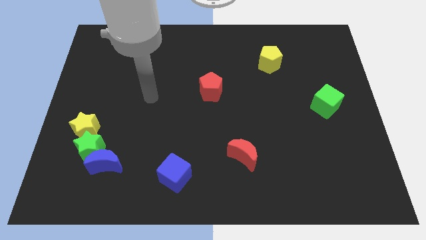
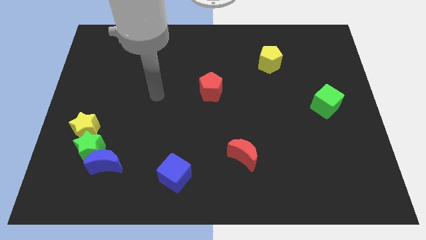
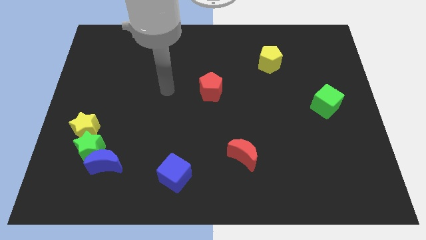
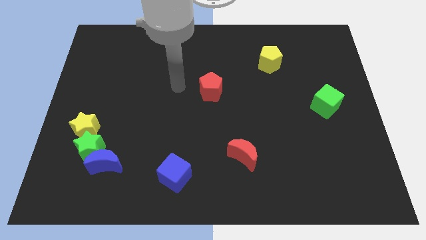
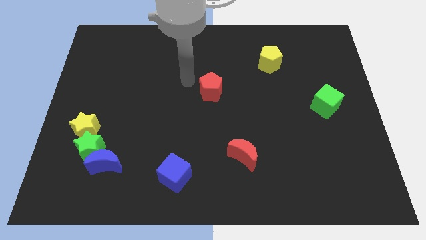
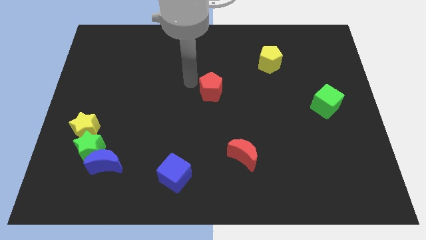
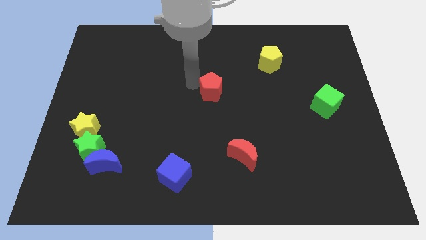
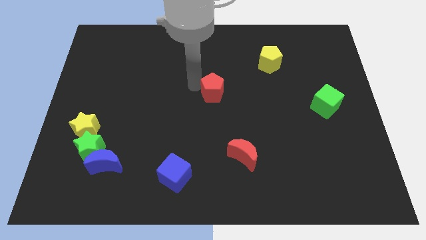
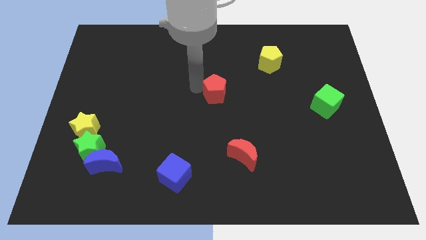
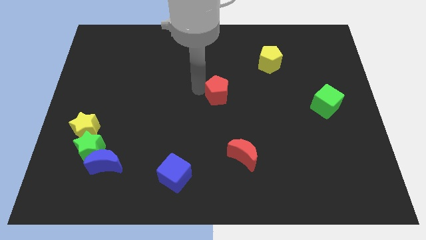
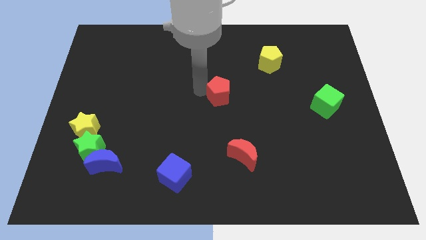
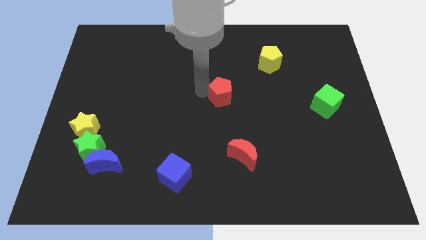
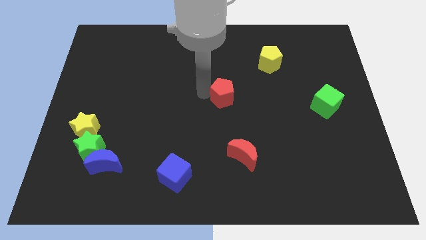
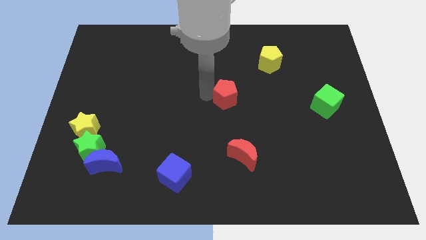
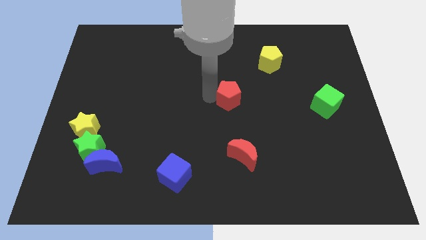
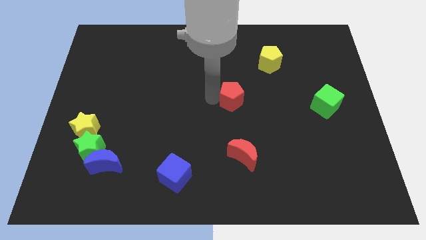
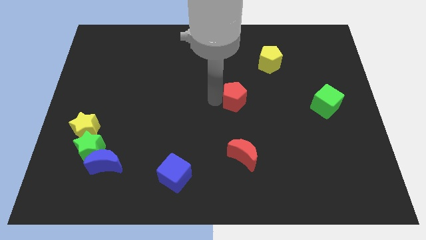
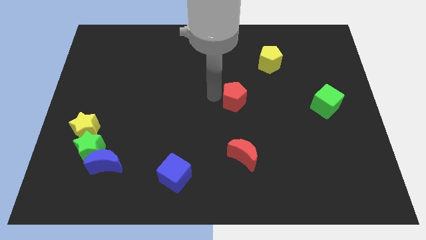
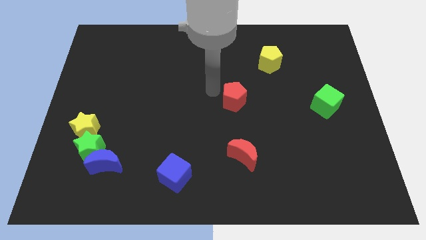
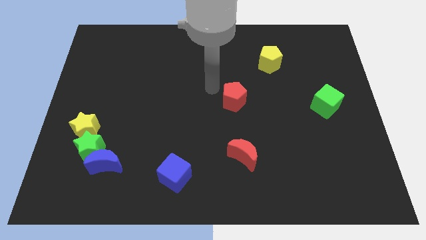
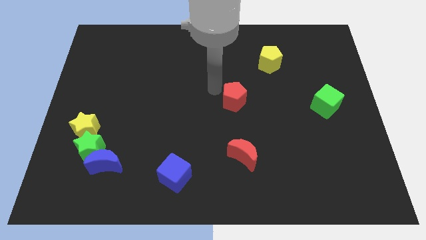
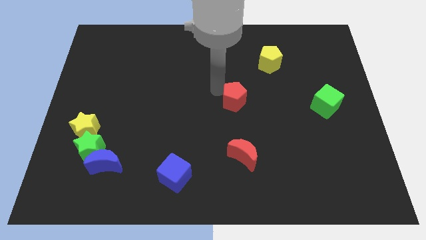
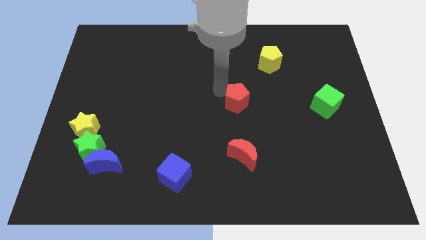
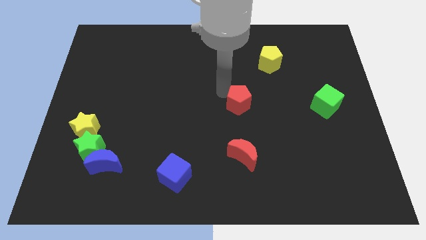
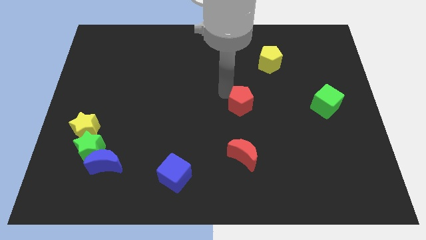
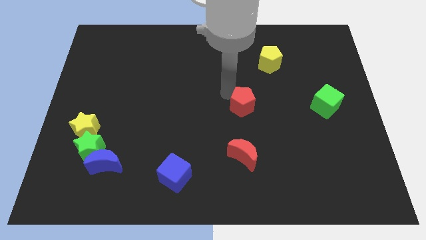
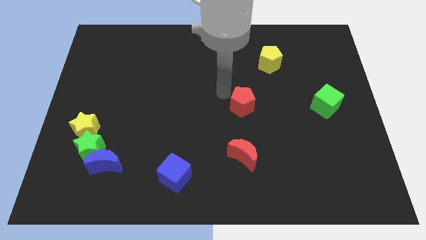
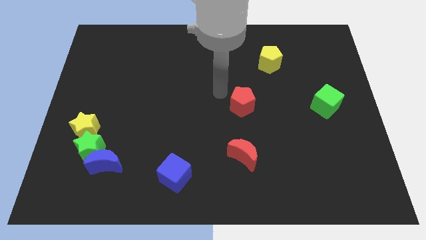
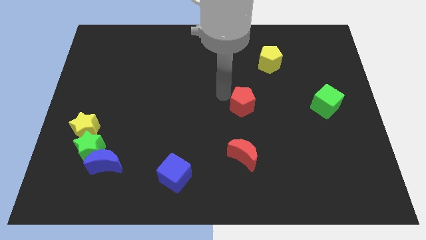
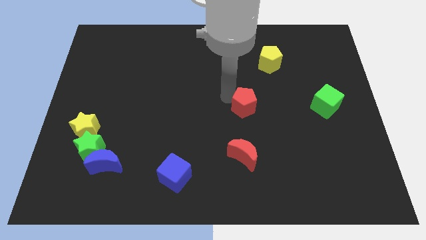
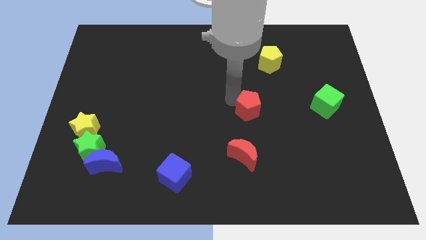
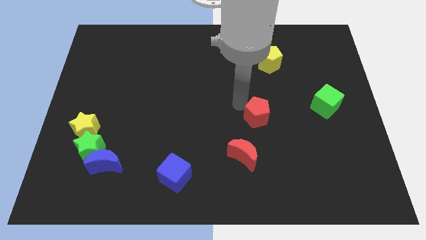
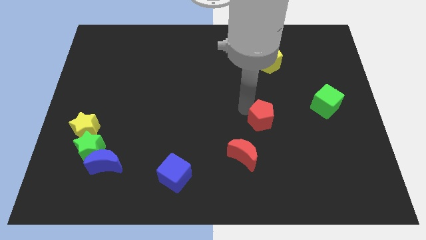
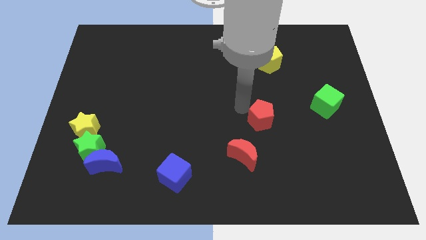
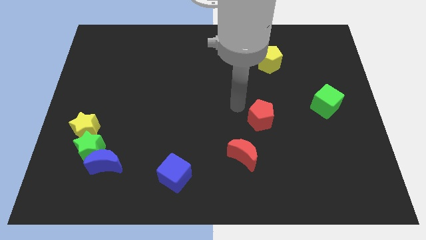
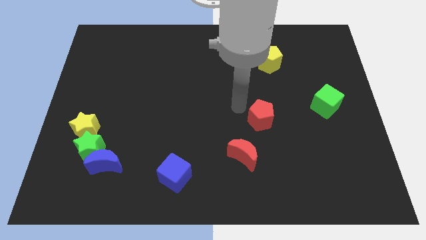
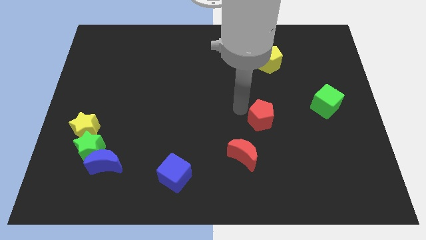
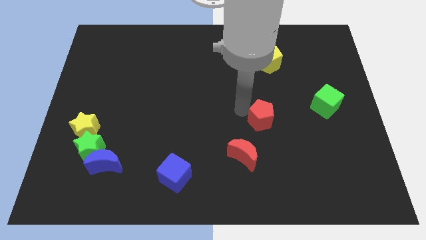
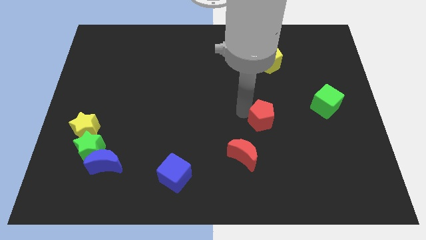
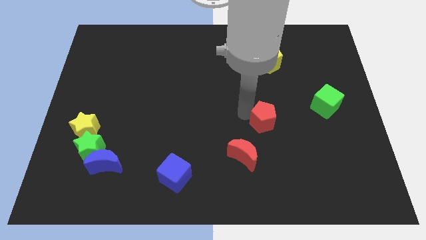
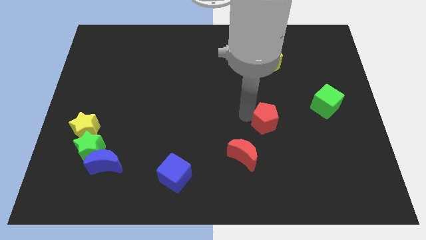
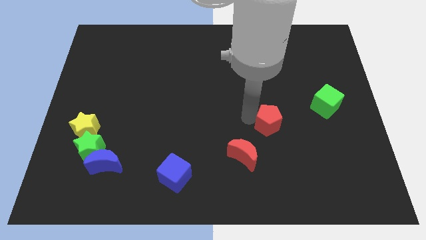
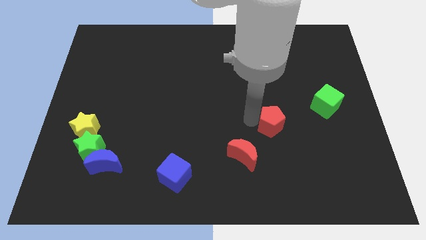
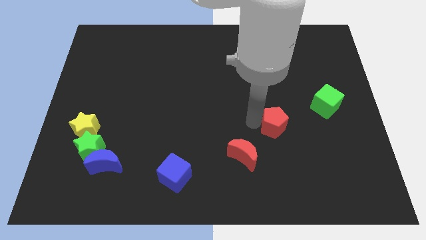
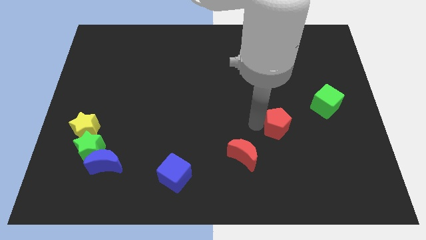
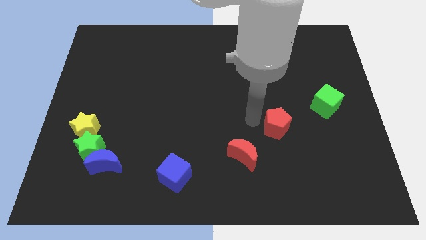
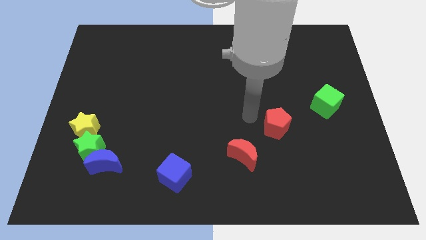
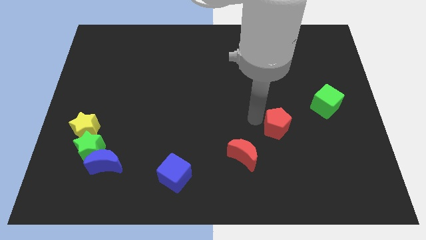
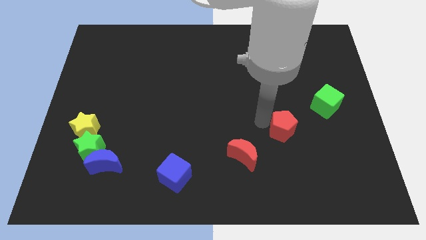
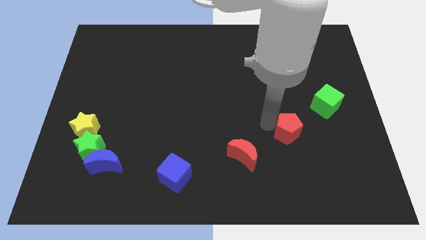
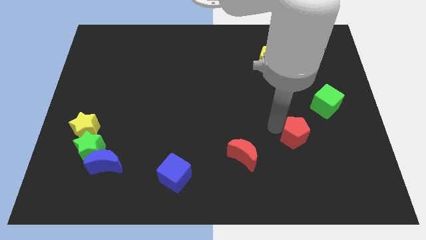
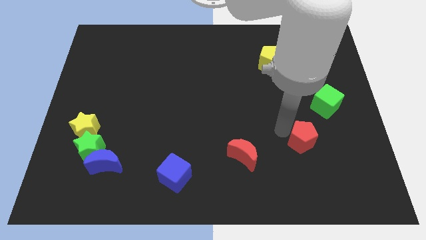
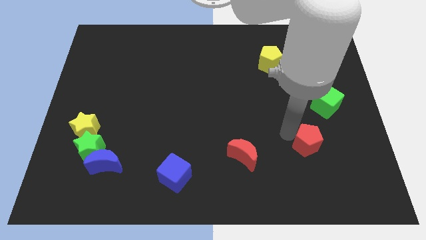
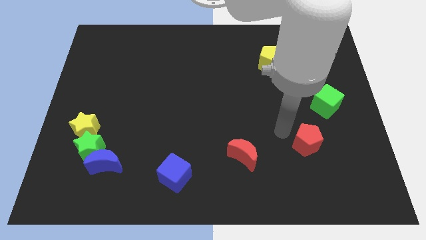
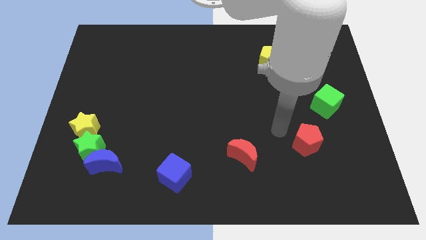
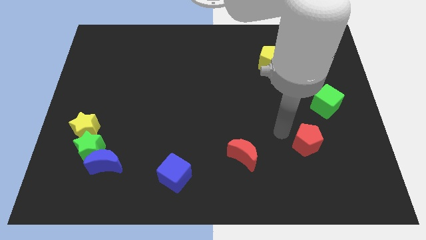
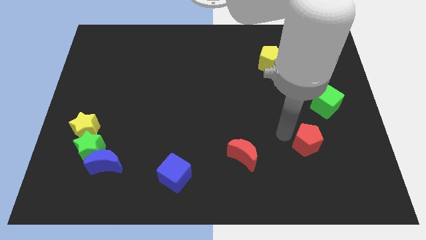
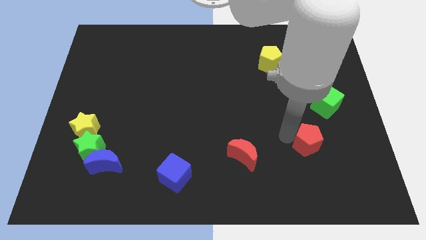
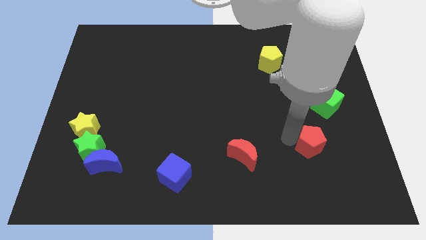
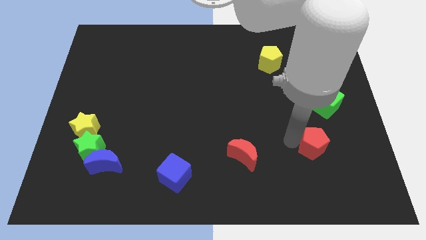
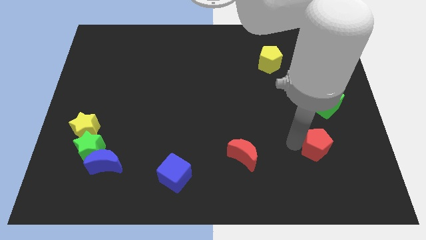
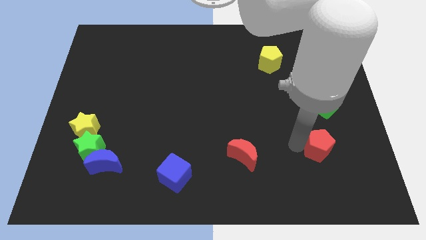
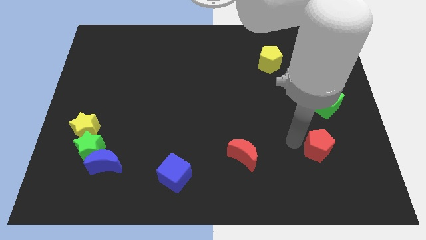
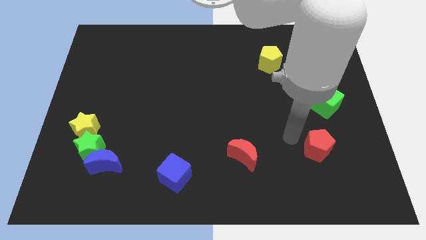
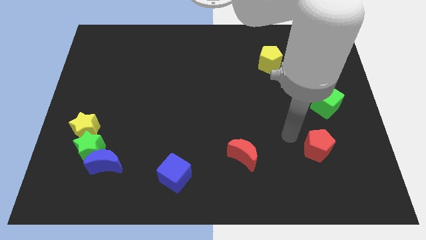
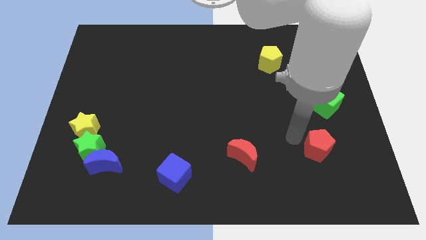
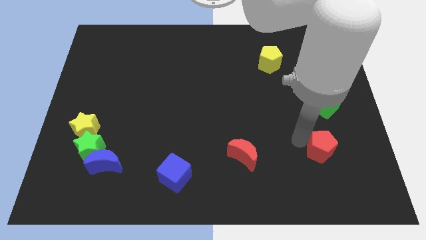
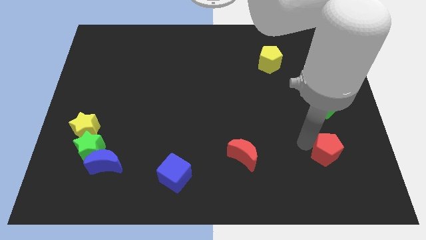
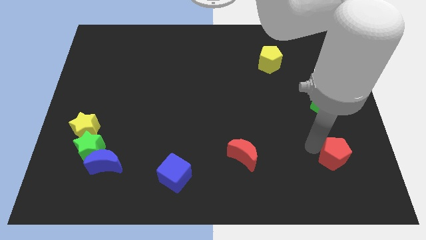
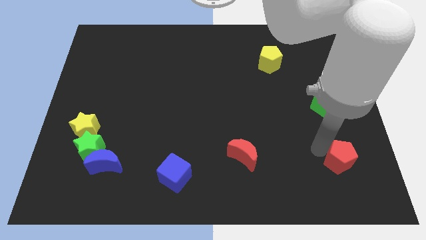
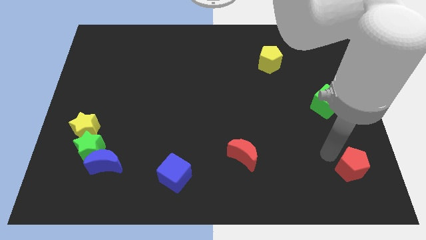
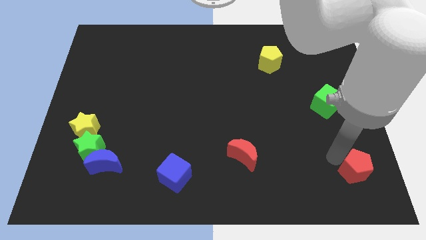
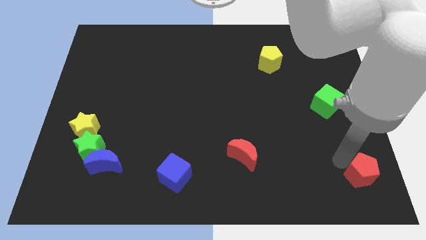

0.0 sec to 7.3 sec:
put the red pentagon to the bottom right
